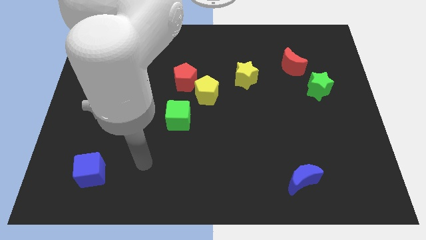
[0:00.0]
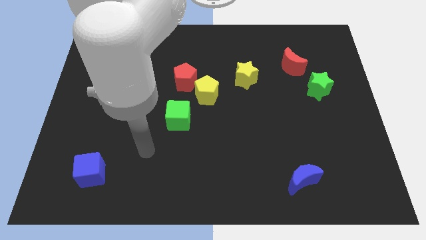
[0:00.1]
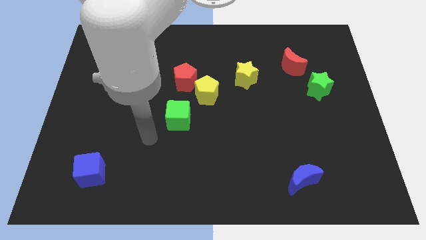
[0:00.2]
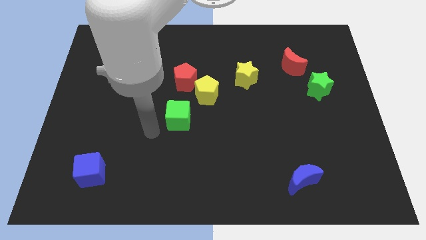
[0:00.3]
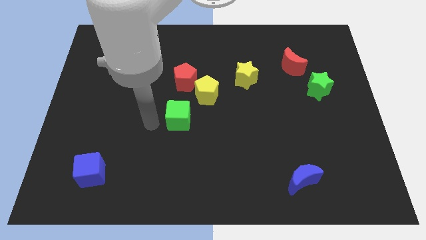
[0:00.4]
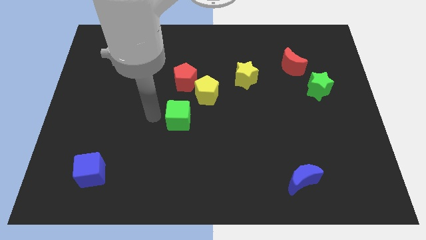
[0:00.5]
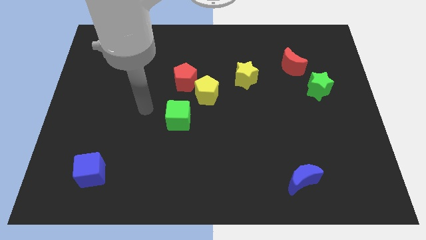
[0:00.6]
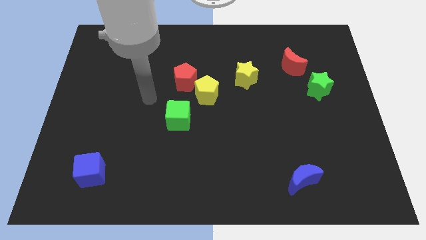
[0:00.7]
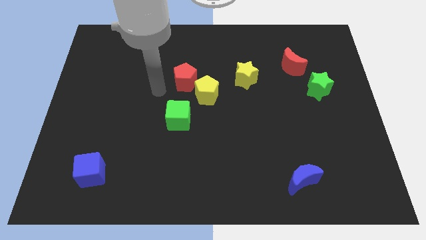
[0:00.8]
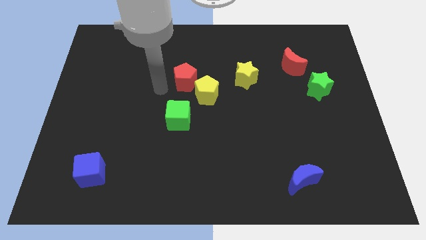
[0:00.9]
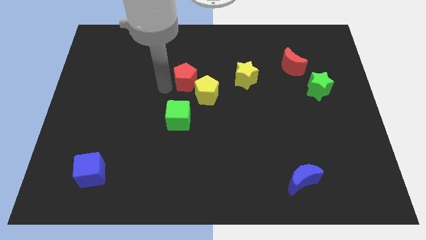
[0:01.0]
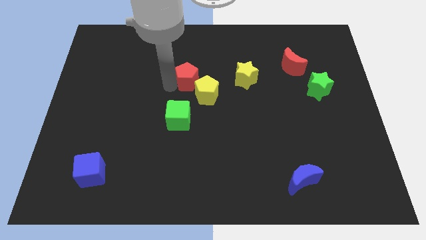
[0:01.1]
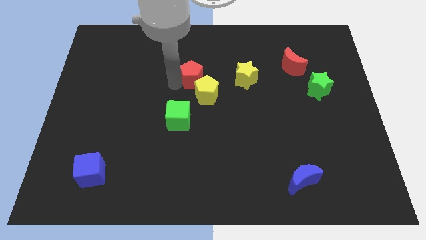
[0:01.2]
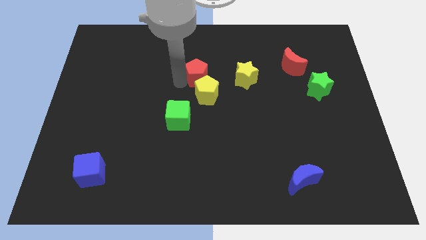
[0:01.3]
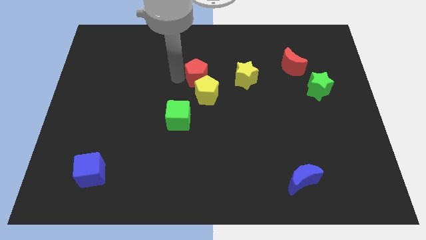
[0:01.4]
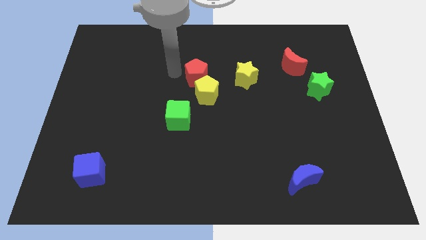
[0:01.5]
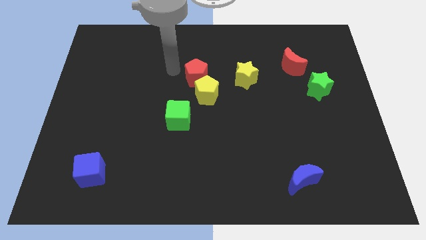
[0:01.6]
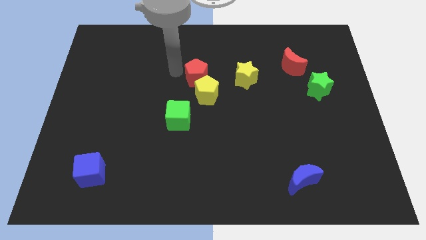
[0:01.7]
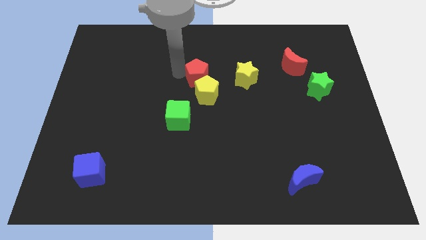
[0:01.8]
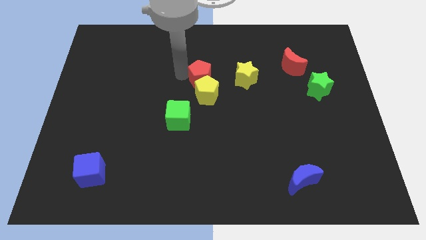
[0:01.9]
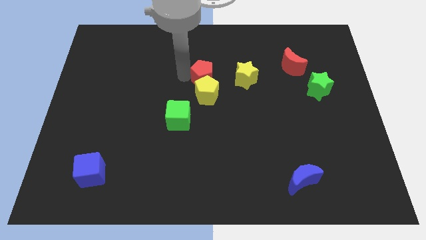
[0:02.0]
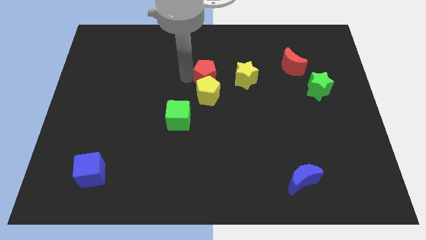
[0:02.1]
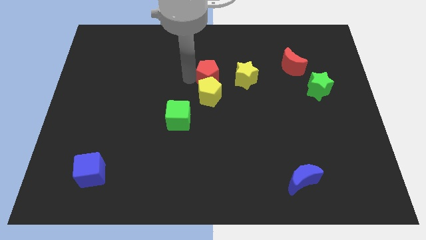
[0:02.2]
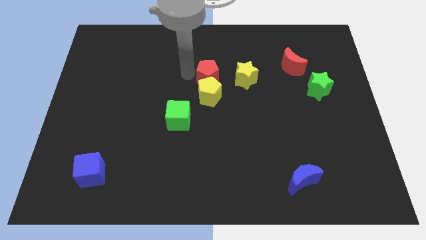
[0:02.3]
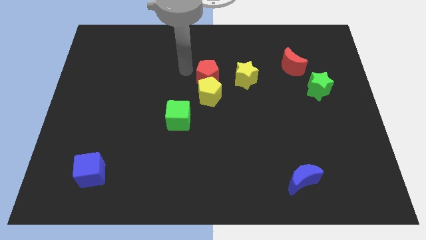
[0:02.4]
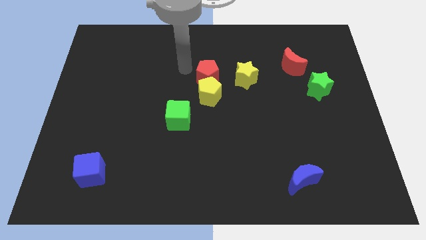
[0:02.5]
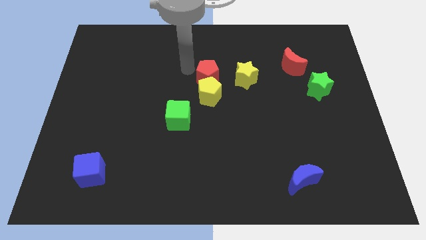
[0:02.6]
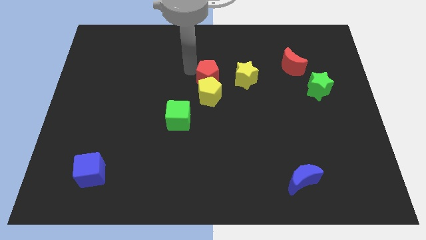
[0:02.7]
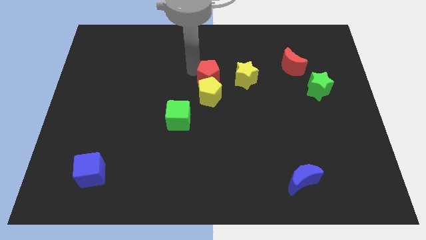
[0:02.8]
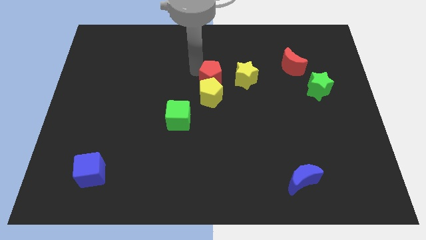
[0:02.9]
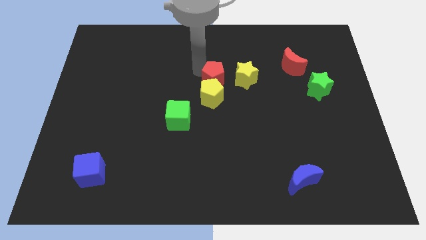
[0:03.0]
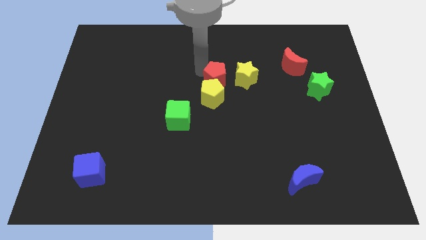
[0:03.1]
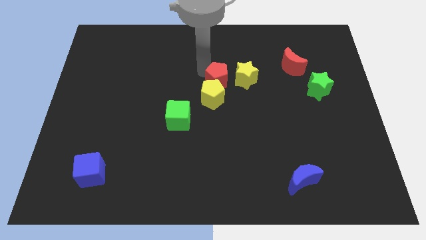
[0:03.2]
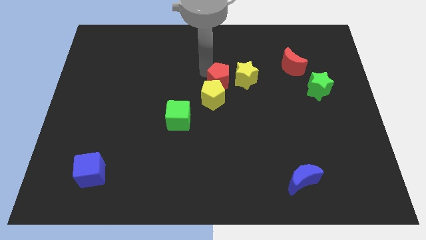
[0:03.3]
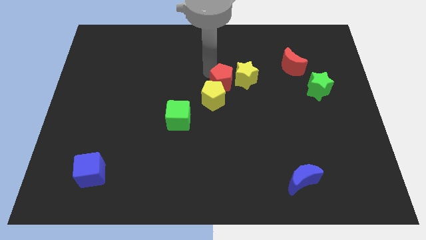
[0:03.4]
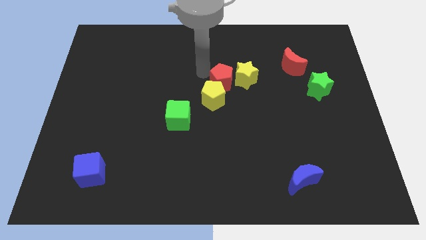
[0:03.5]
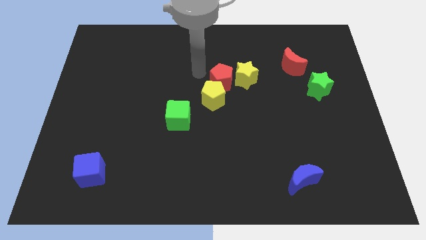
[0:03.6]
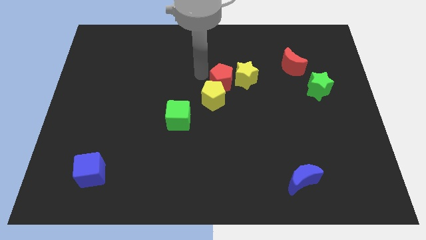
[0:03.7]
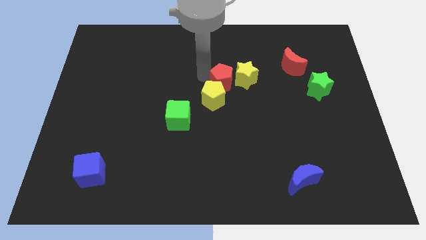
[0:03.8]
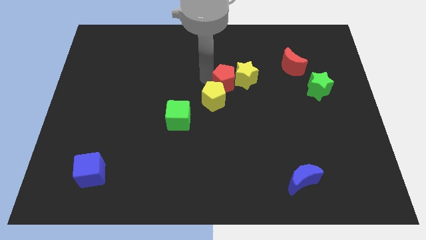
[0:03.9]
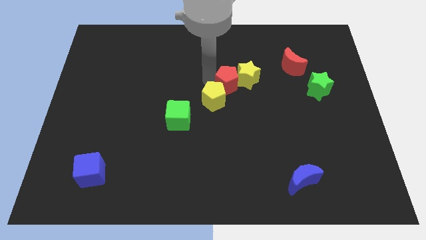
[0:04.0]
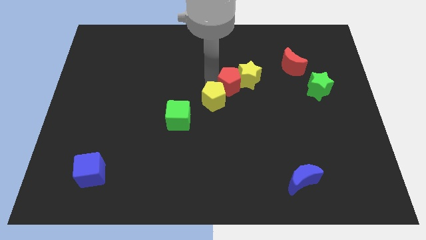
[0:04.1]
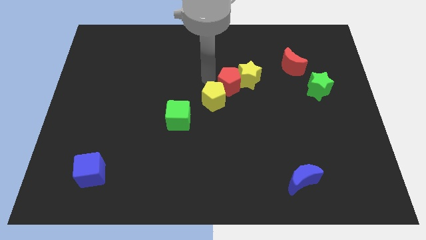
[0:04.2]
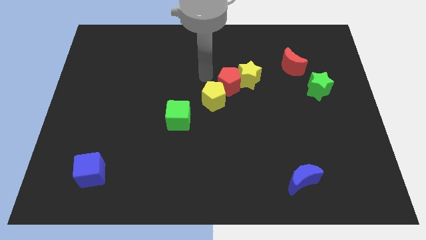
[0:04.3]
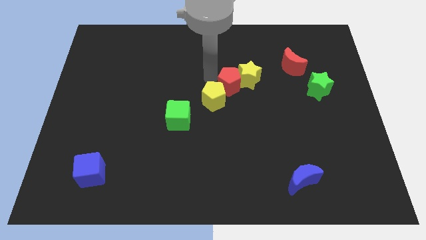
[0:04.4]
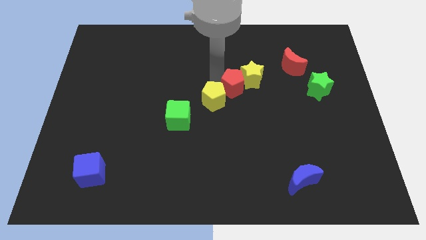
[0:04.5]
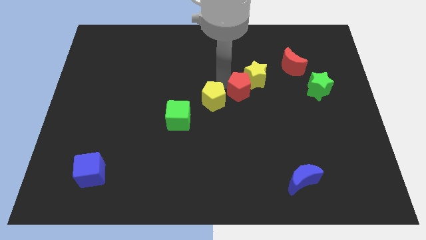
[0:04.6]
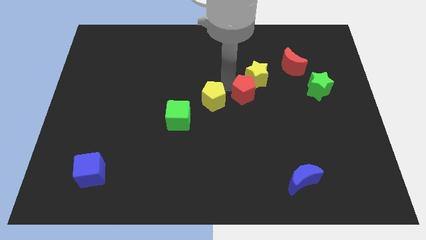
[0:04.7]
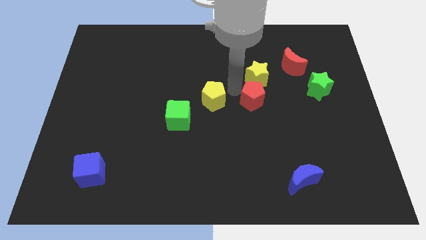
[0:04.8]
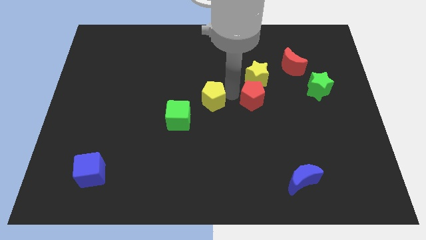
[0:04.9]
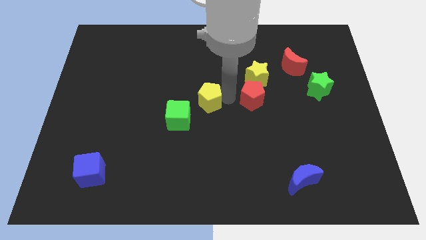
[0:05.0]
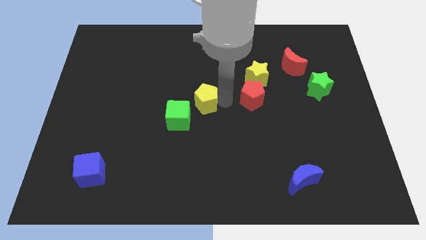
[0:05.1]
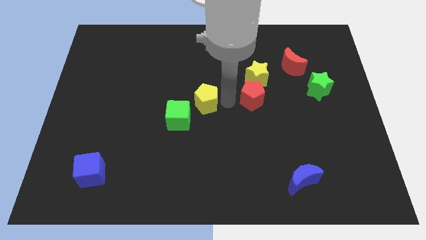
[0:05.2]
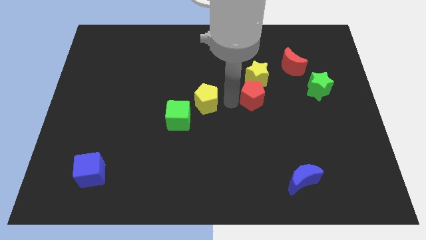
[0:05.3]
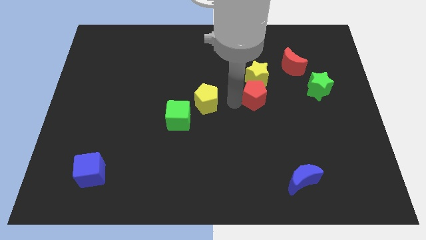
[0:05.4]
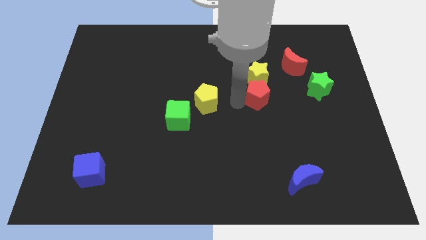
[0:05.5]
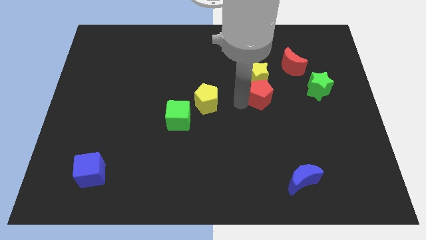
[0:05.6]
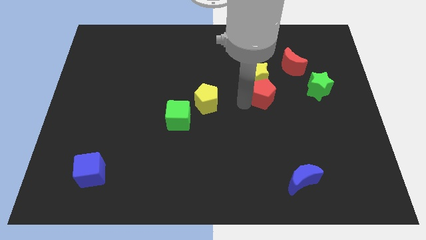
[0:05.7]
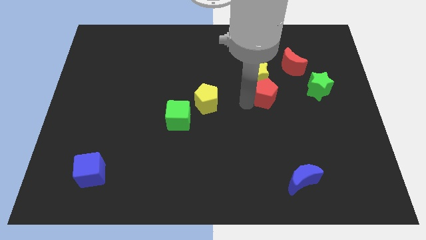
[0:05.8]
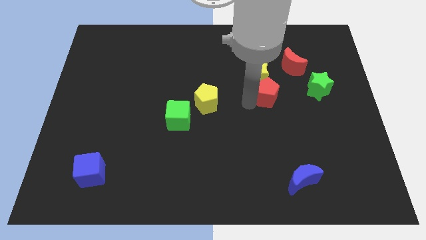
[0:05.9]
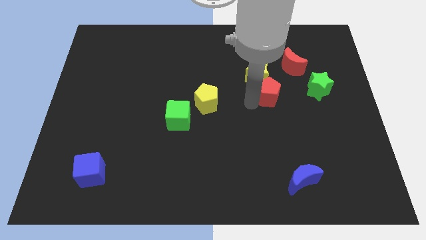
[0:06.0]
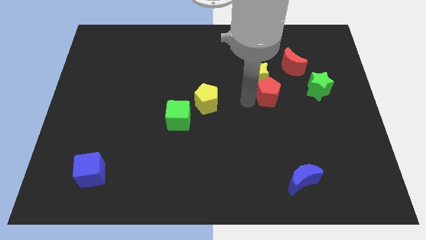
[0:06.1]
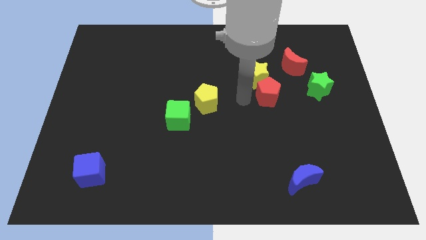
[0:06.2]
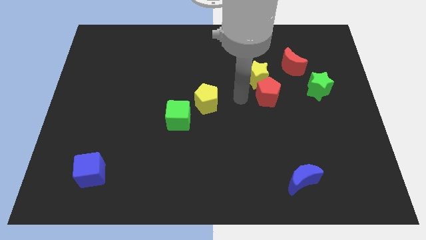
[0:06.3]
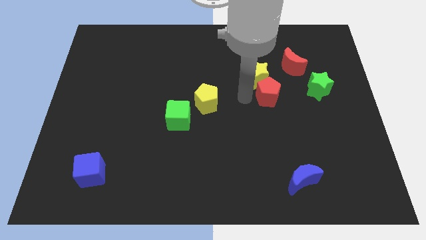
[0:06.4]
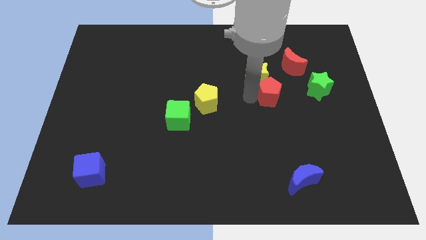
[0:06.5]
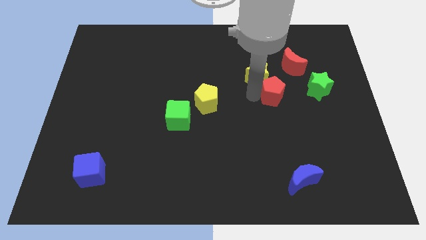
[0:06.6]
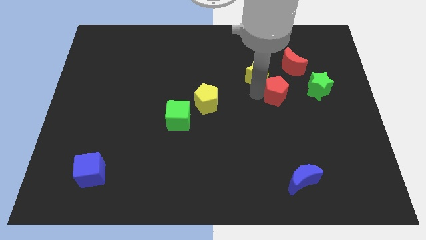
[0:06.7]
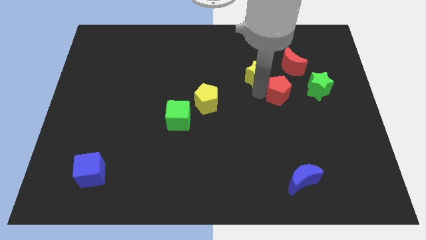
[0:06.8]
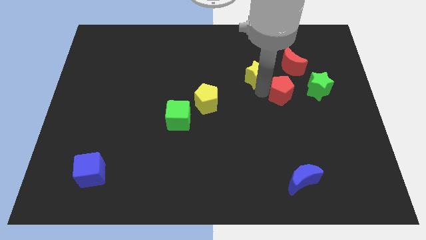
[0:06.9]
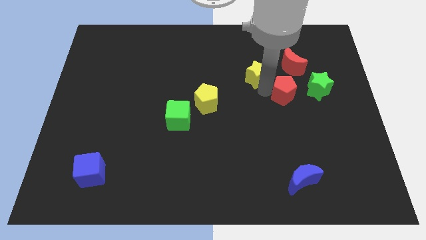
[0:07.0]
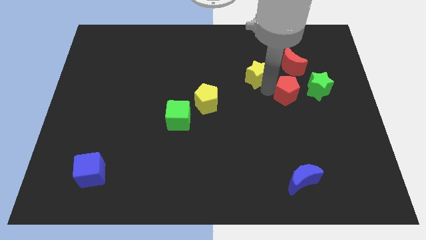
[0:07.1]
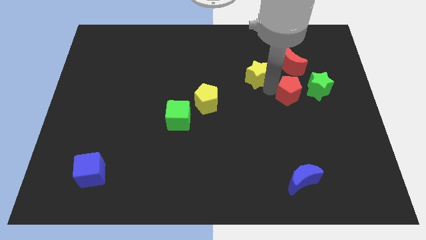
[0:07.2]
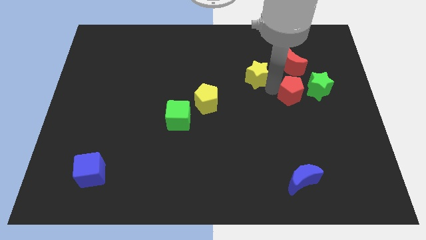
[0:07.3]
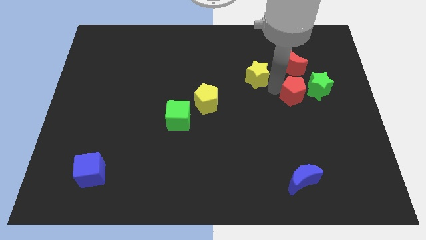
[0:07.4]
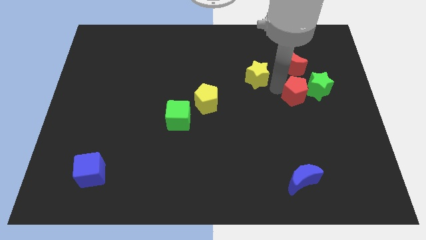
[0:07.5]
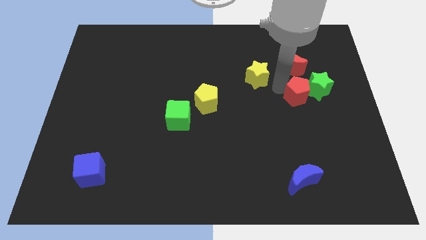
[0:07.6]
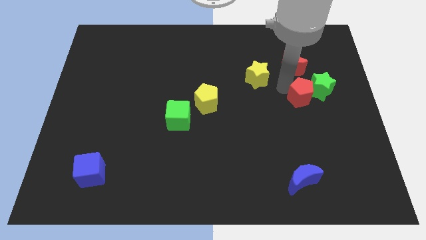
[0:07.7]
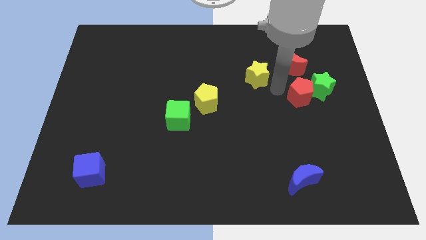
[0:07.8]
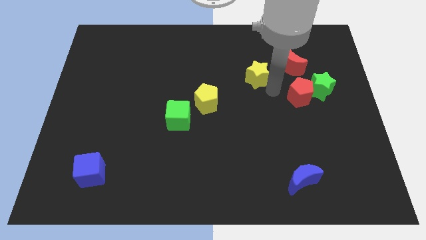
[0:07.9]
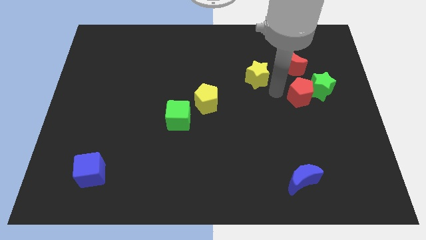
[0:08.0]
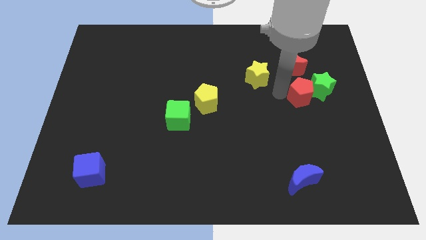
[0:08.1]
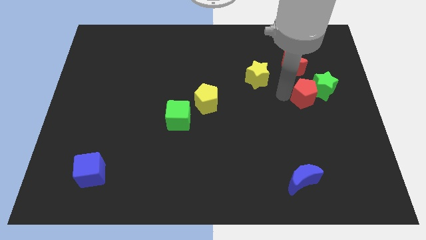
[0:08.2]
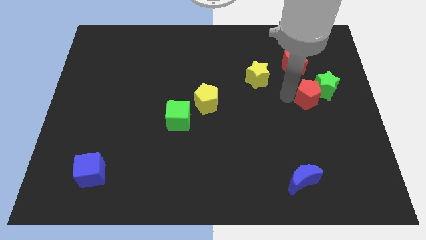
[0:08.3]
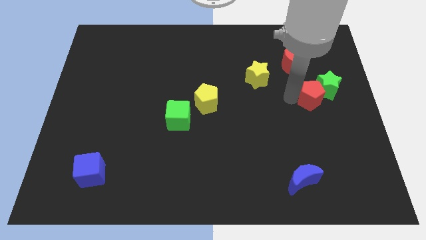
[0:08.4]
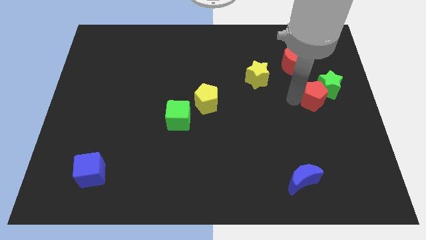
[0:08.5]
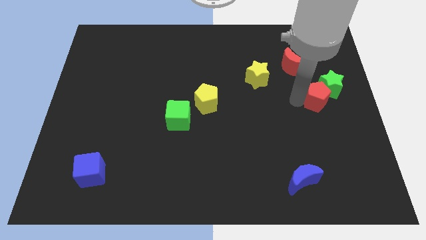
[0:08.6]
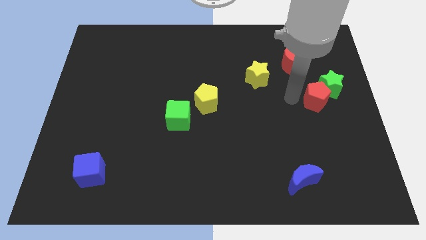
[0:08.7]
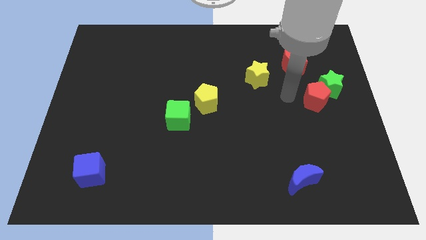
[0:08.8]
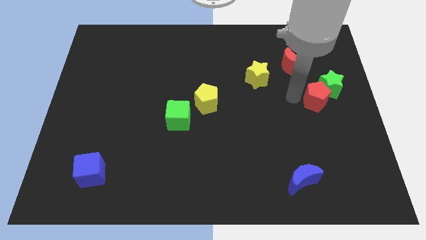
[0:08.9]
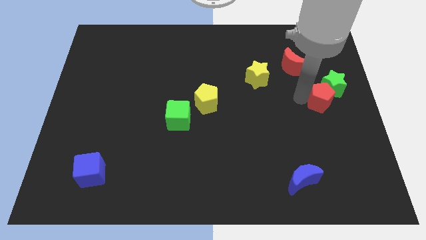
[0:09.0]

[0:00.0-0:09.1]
push the red pentagon to the right side
